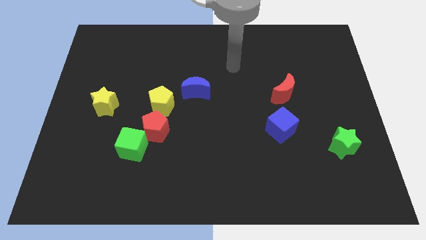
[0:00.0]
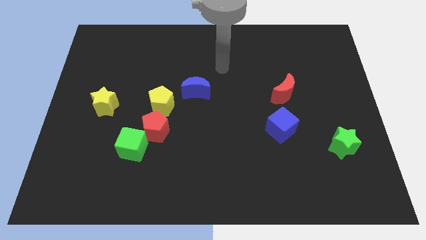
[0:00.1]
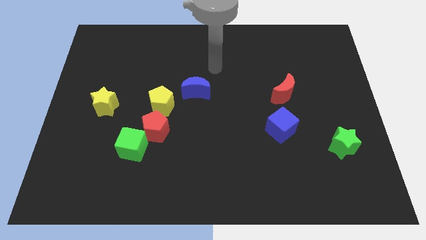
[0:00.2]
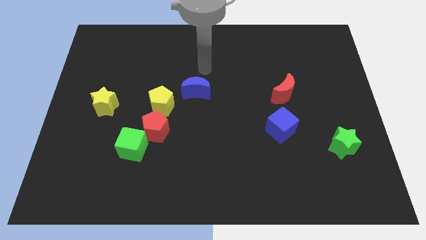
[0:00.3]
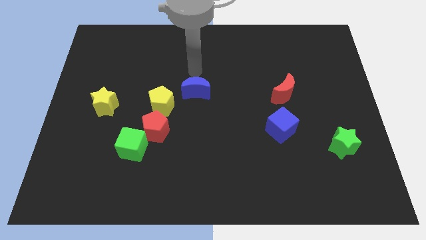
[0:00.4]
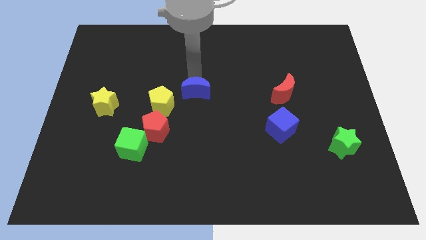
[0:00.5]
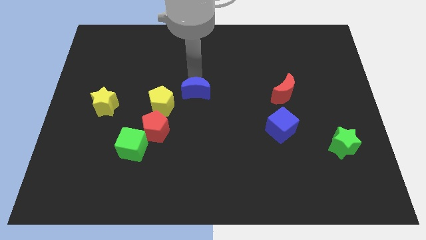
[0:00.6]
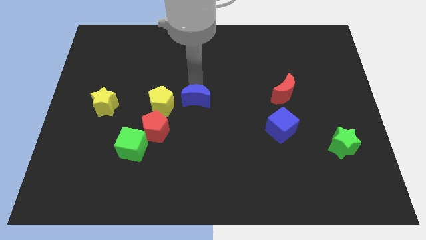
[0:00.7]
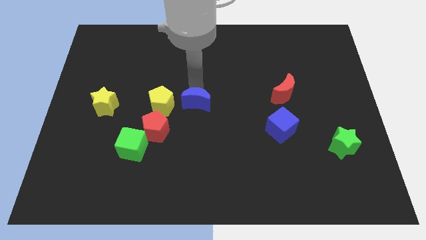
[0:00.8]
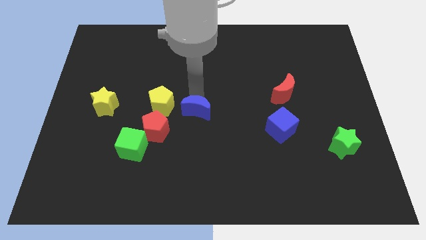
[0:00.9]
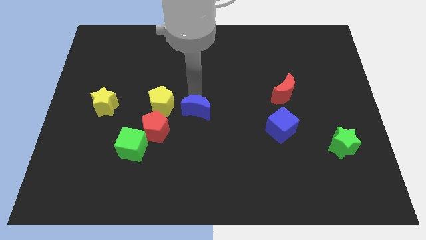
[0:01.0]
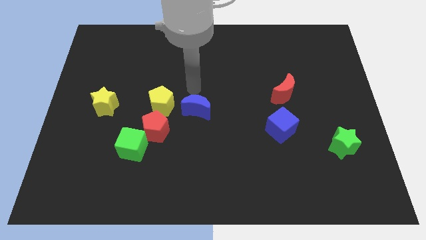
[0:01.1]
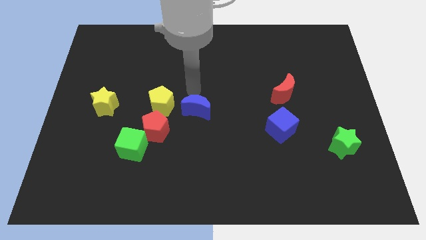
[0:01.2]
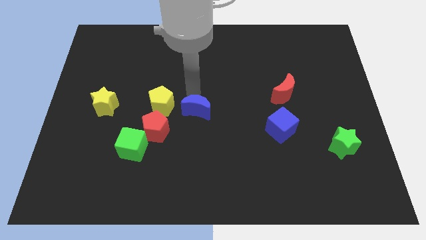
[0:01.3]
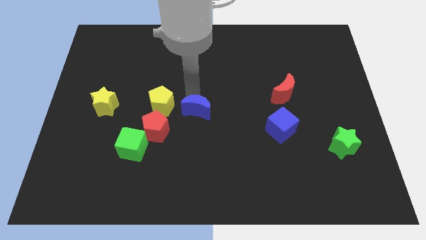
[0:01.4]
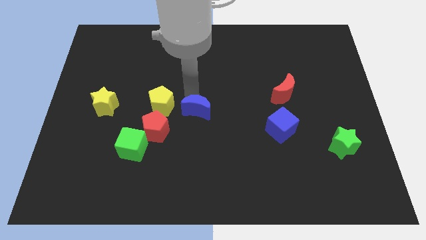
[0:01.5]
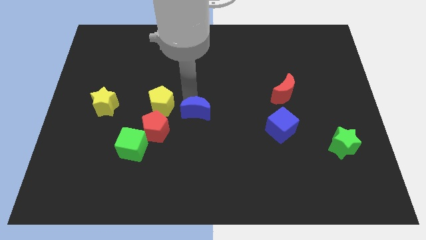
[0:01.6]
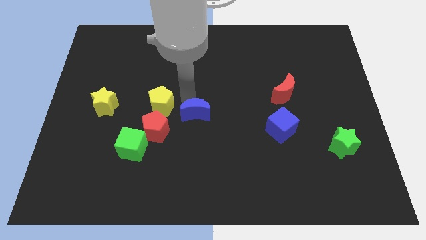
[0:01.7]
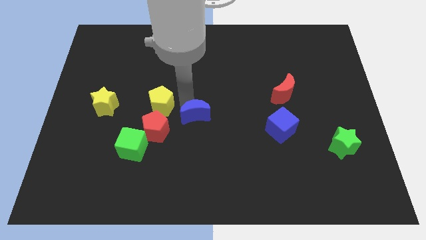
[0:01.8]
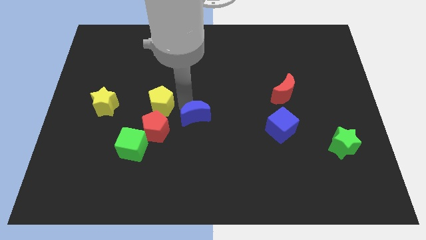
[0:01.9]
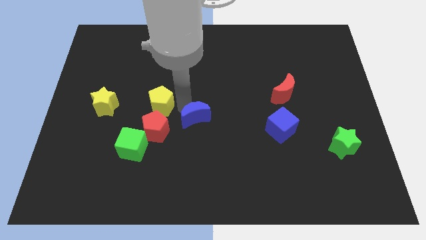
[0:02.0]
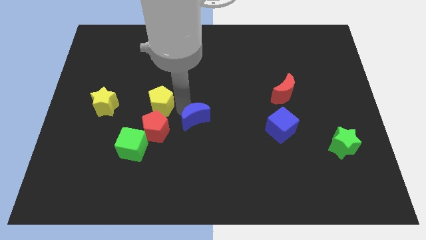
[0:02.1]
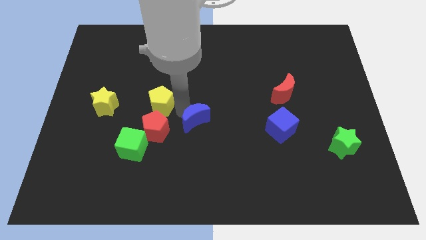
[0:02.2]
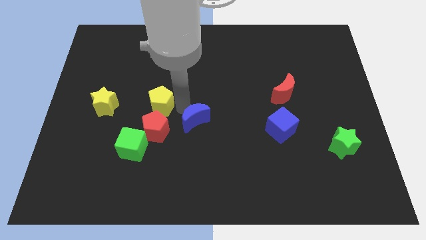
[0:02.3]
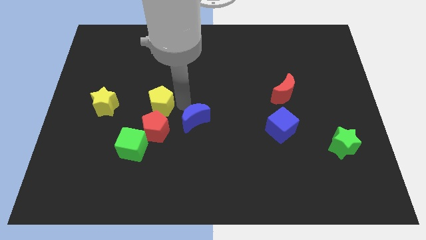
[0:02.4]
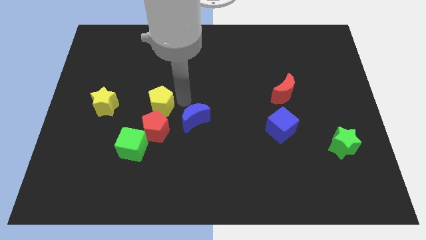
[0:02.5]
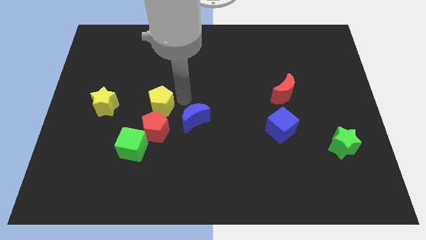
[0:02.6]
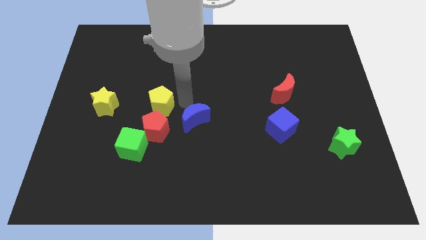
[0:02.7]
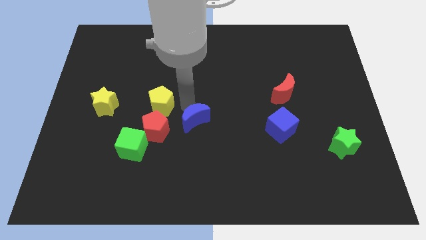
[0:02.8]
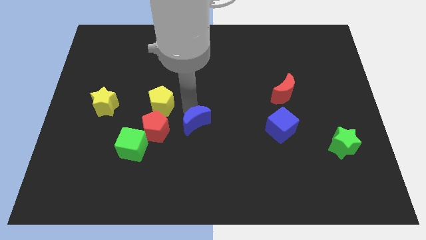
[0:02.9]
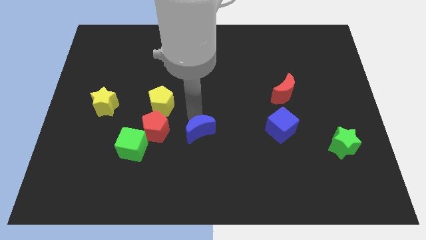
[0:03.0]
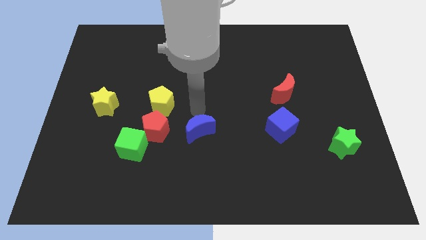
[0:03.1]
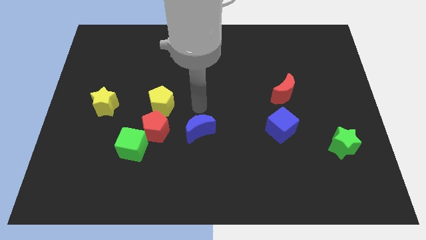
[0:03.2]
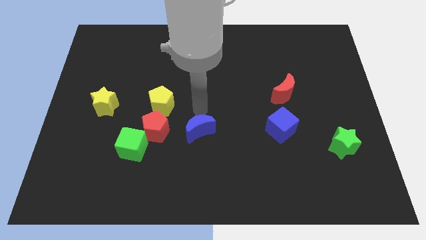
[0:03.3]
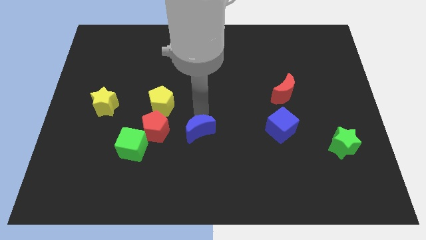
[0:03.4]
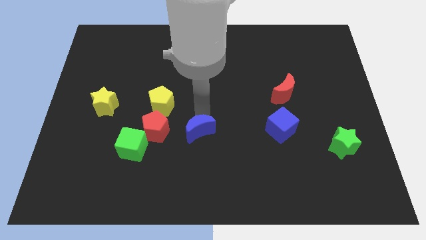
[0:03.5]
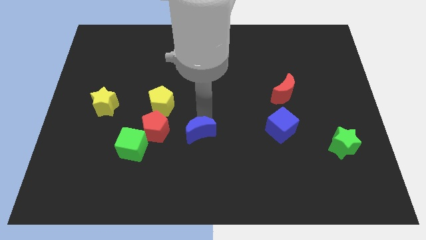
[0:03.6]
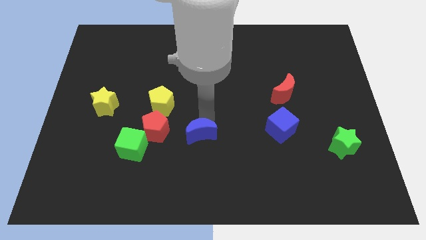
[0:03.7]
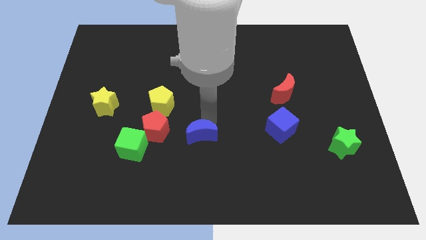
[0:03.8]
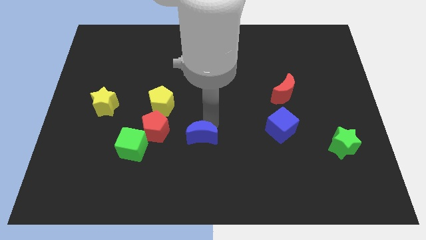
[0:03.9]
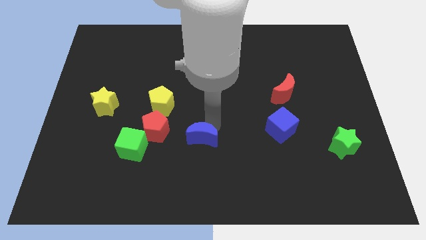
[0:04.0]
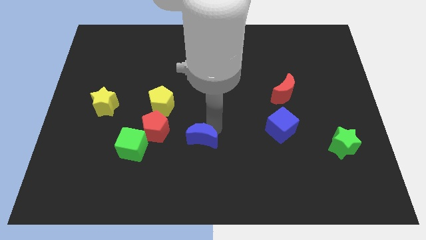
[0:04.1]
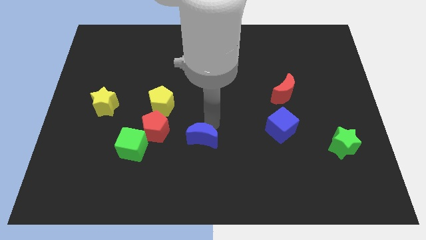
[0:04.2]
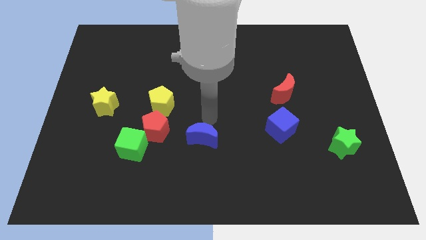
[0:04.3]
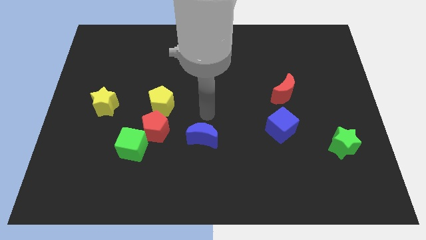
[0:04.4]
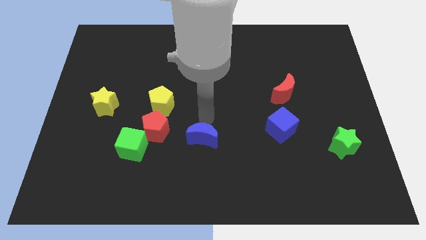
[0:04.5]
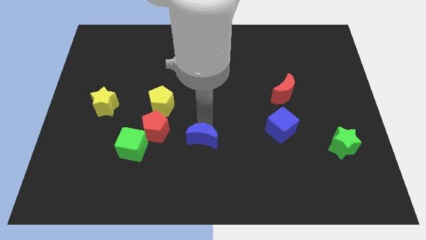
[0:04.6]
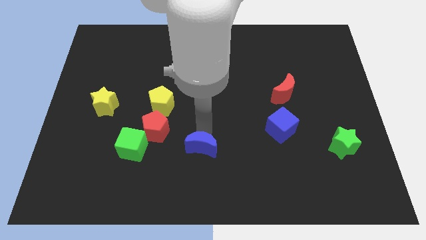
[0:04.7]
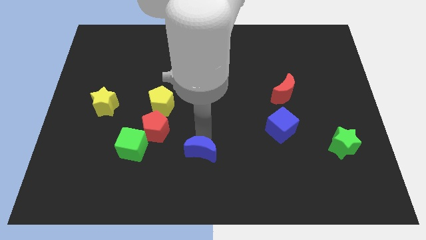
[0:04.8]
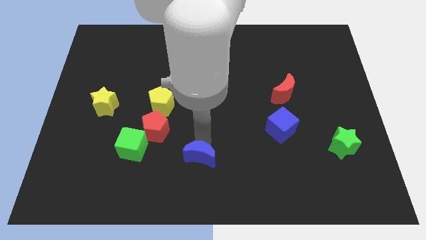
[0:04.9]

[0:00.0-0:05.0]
move the blue moon to the bottom

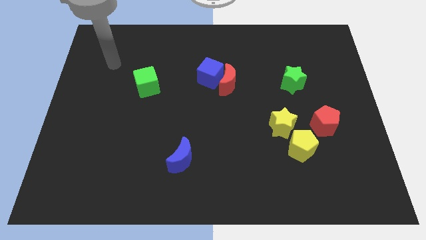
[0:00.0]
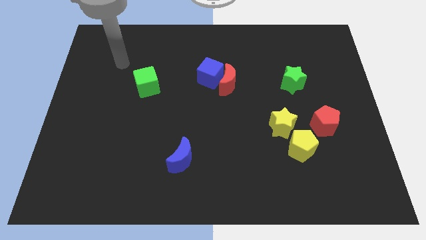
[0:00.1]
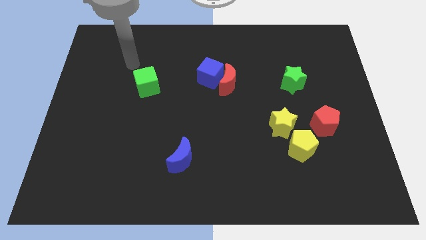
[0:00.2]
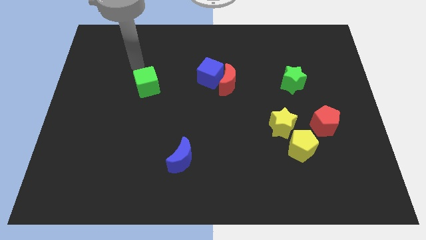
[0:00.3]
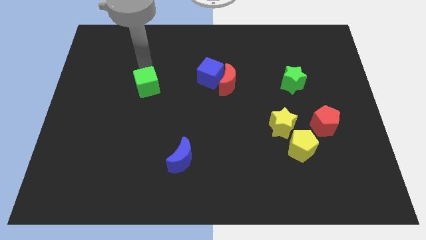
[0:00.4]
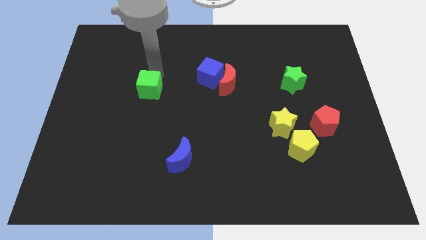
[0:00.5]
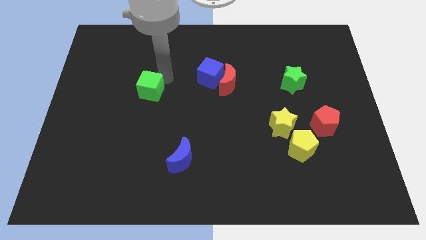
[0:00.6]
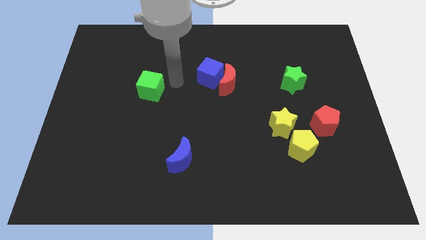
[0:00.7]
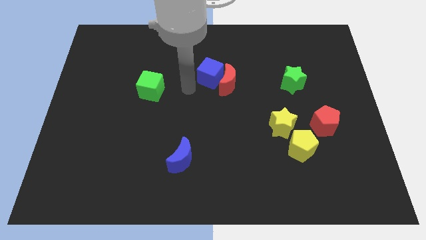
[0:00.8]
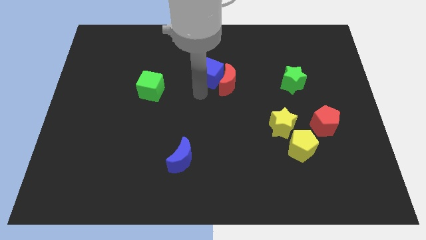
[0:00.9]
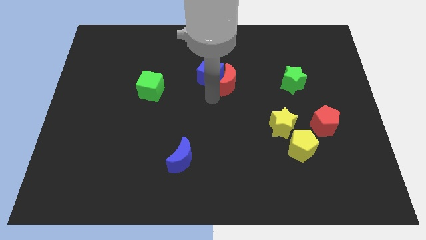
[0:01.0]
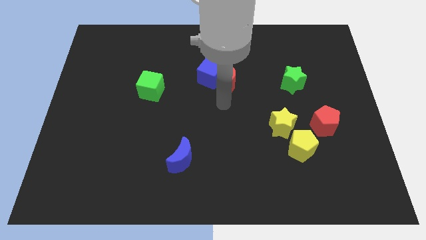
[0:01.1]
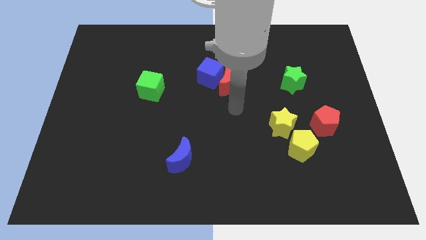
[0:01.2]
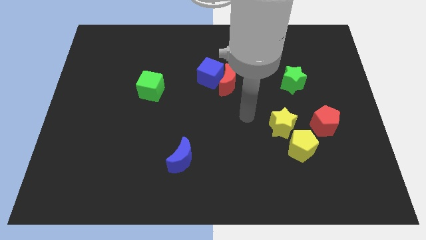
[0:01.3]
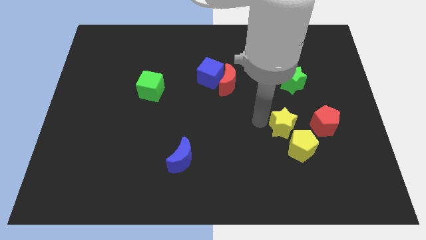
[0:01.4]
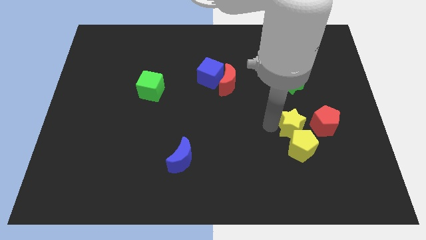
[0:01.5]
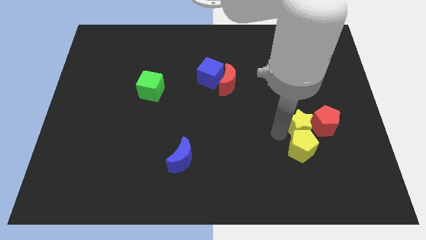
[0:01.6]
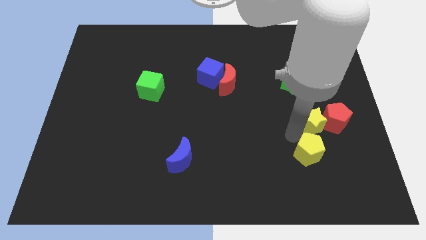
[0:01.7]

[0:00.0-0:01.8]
slide the red pentagon to the right side of the board
